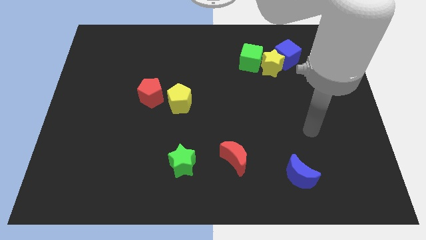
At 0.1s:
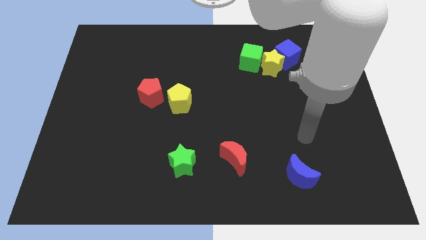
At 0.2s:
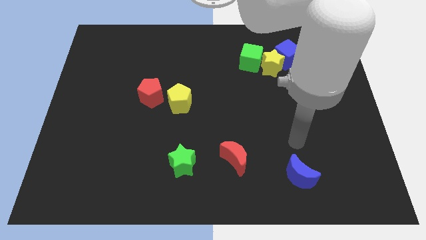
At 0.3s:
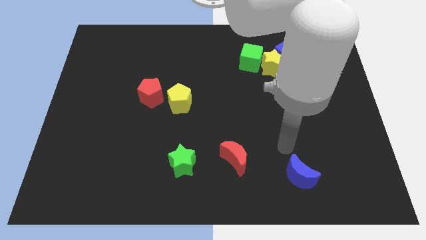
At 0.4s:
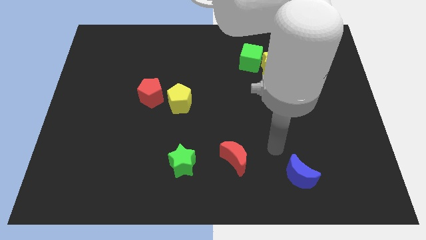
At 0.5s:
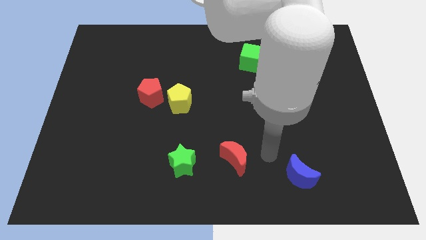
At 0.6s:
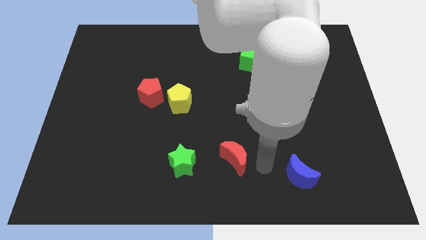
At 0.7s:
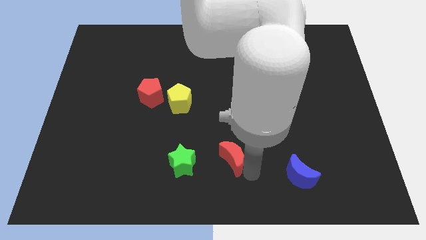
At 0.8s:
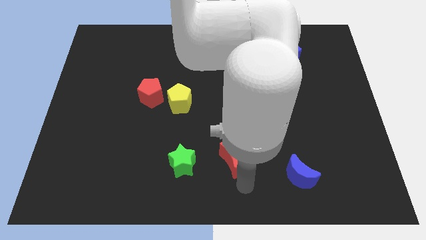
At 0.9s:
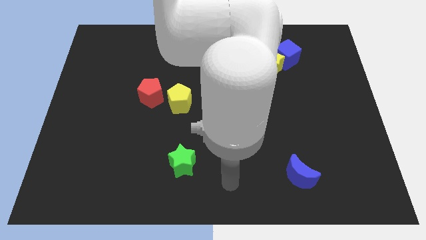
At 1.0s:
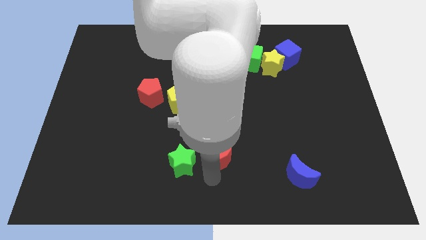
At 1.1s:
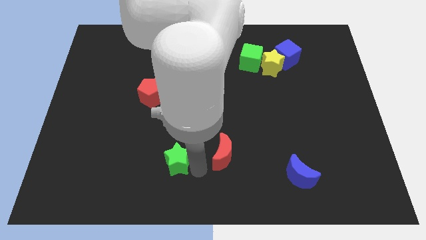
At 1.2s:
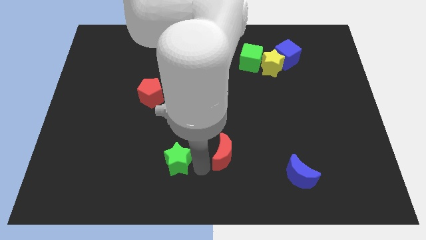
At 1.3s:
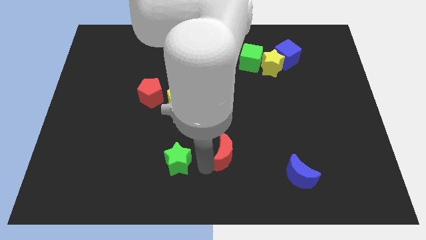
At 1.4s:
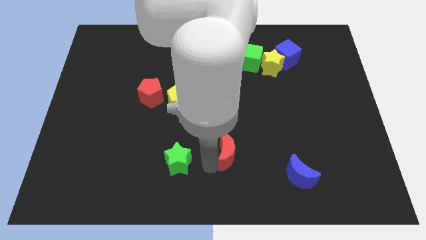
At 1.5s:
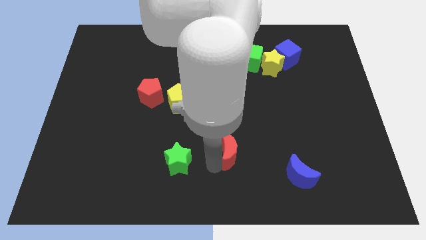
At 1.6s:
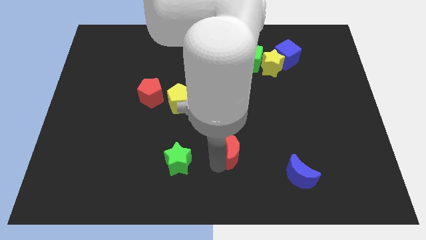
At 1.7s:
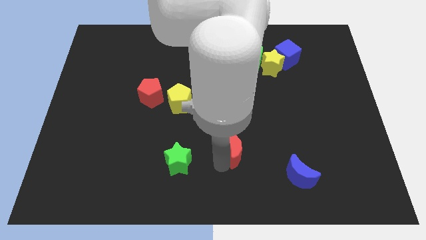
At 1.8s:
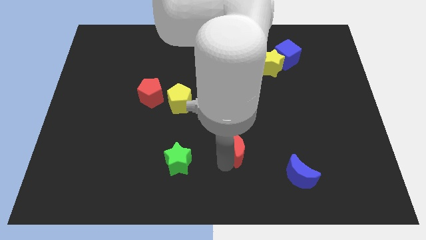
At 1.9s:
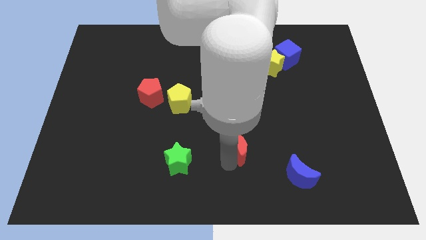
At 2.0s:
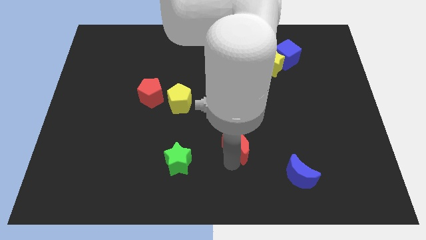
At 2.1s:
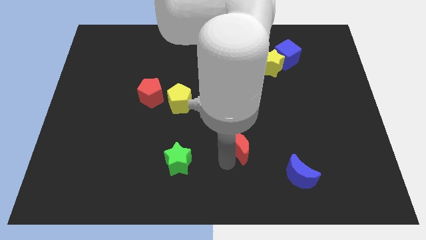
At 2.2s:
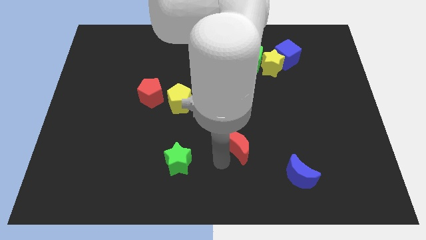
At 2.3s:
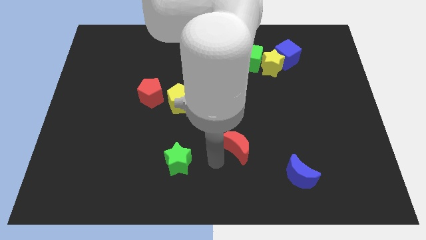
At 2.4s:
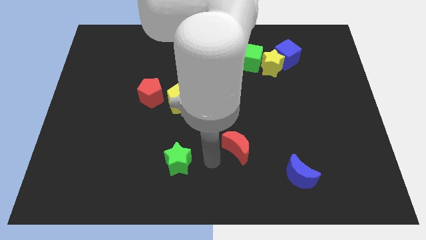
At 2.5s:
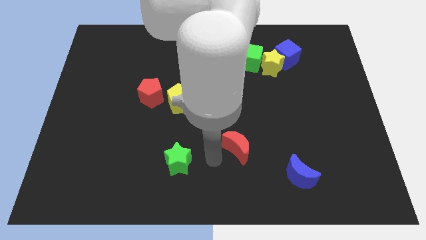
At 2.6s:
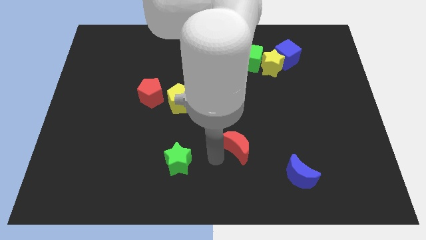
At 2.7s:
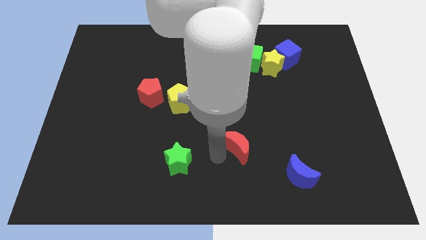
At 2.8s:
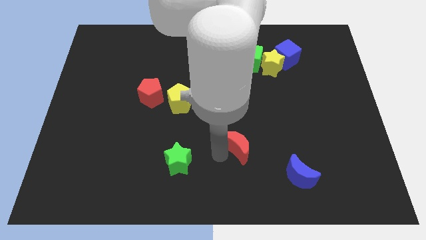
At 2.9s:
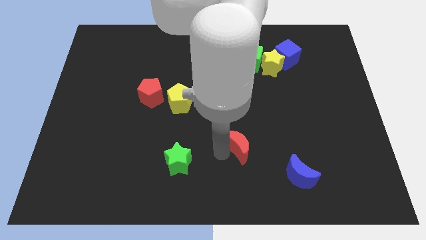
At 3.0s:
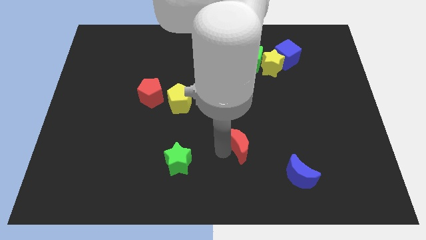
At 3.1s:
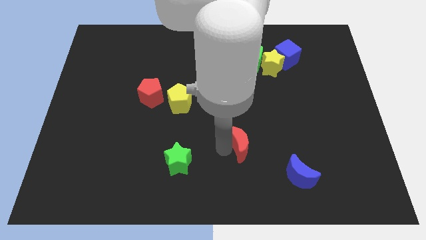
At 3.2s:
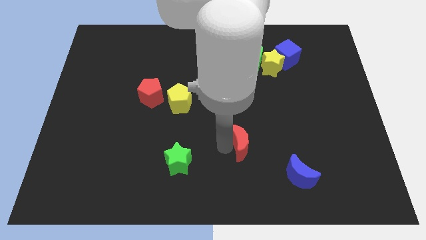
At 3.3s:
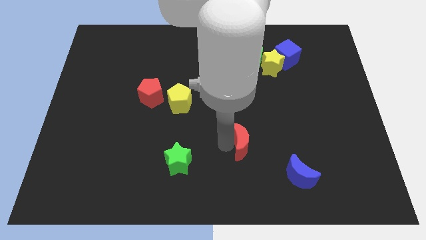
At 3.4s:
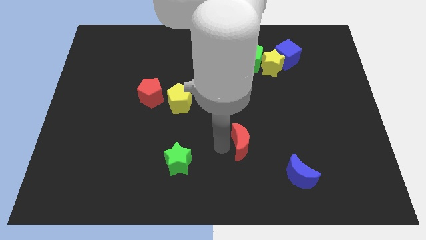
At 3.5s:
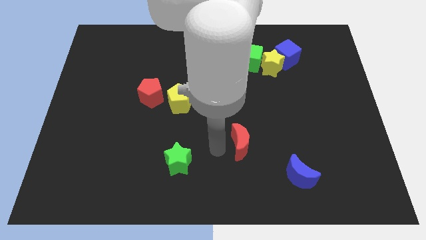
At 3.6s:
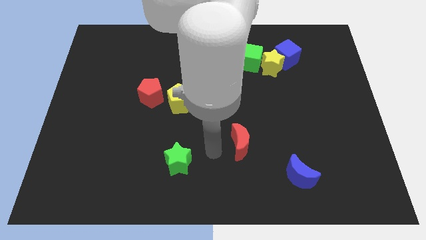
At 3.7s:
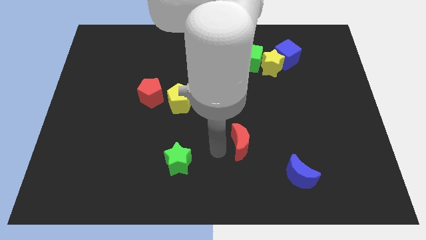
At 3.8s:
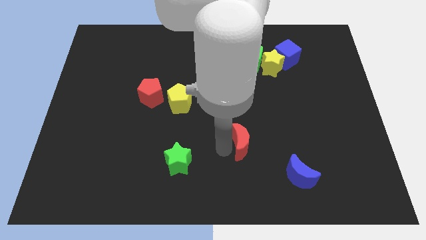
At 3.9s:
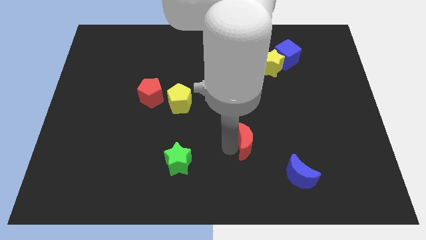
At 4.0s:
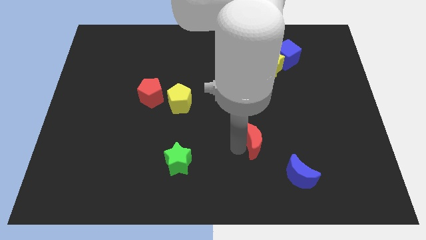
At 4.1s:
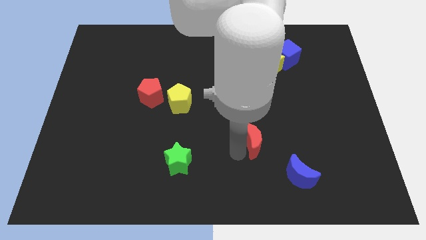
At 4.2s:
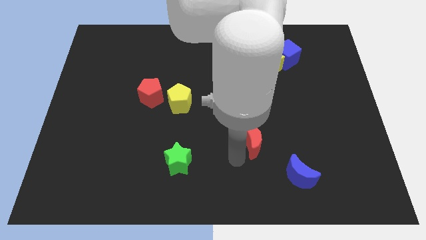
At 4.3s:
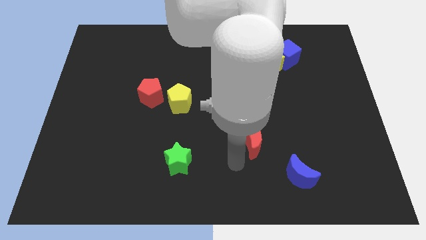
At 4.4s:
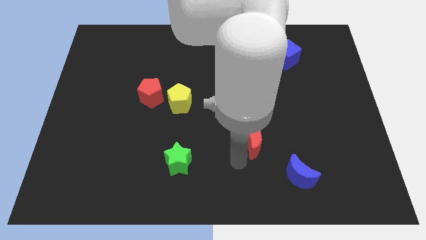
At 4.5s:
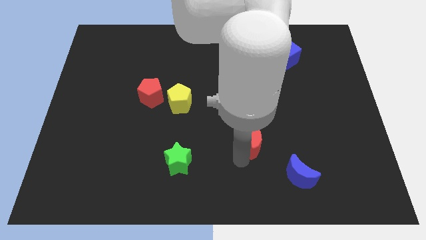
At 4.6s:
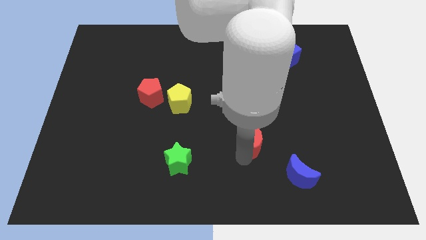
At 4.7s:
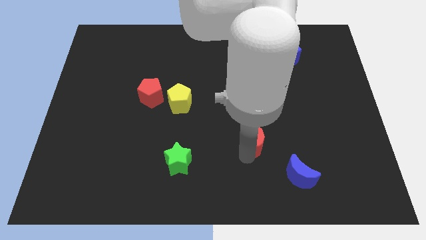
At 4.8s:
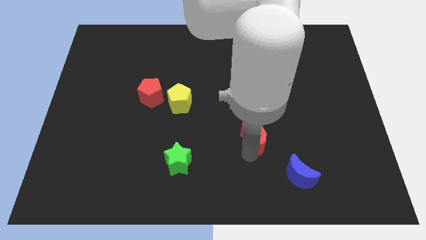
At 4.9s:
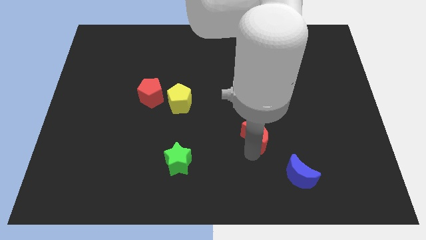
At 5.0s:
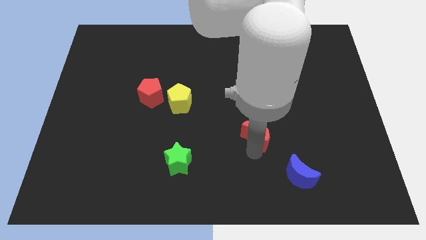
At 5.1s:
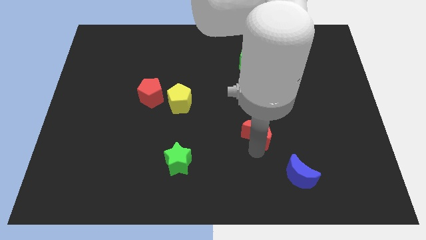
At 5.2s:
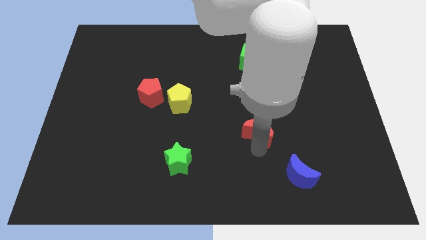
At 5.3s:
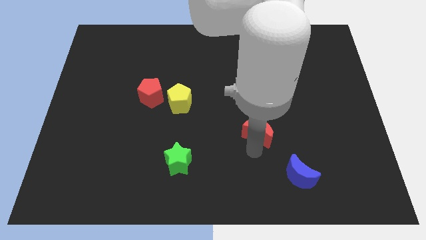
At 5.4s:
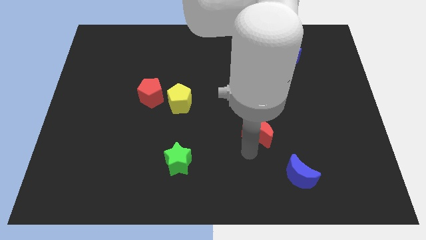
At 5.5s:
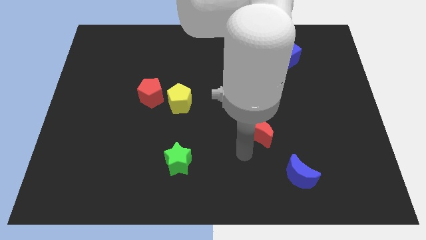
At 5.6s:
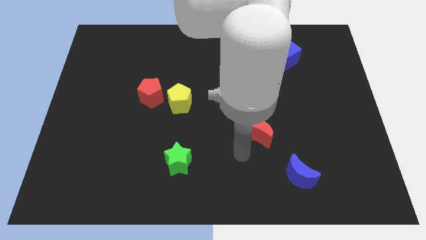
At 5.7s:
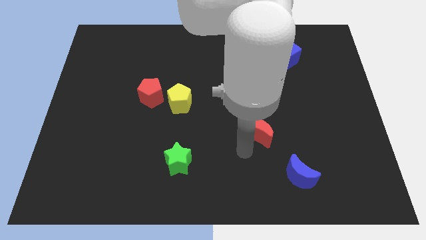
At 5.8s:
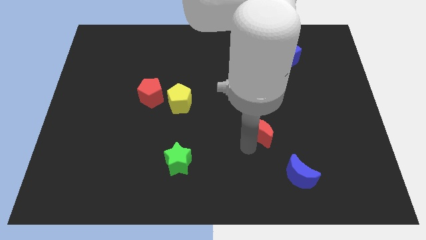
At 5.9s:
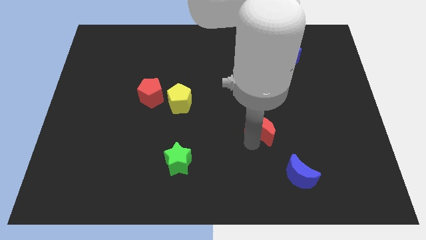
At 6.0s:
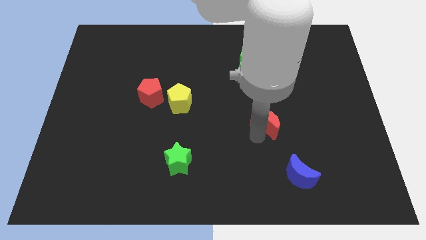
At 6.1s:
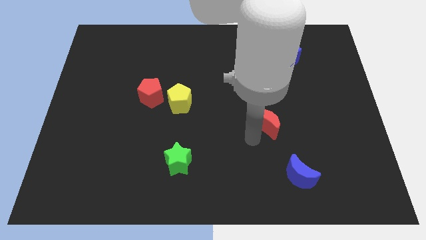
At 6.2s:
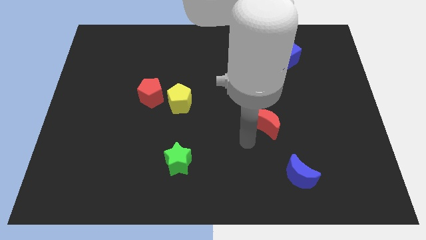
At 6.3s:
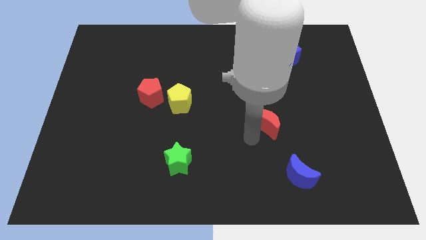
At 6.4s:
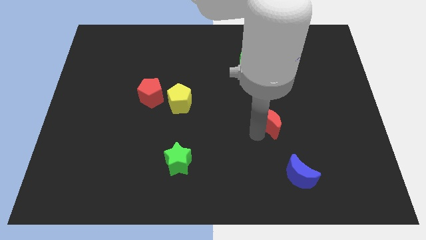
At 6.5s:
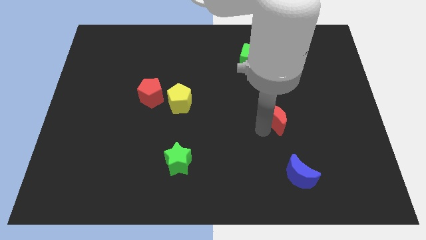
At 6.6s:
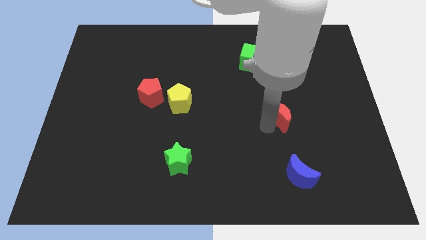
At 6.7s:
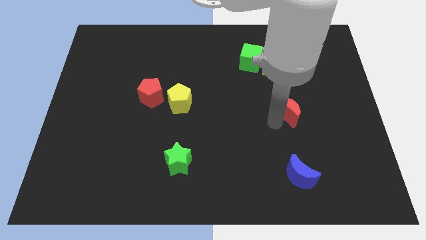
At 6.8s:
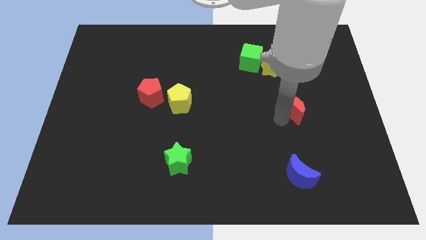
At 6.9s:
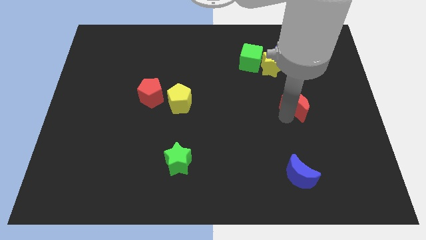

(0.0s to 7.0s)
push the red moon up and to the right

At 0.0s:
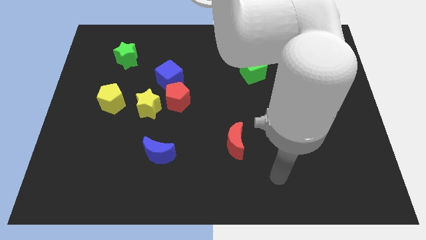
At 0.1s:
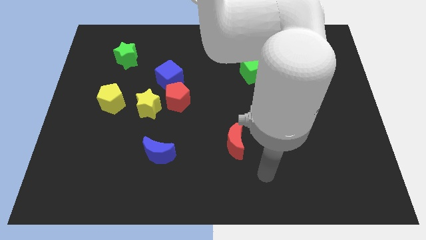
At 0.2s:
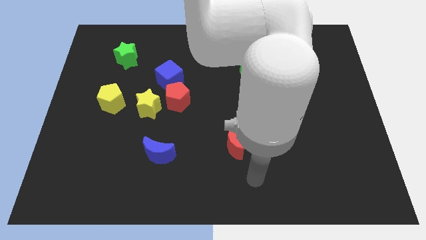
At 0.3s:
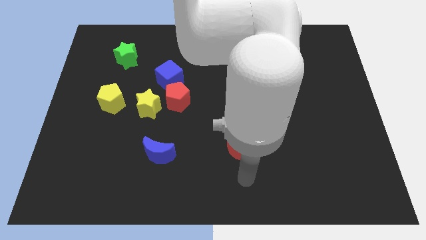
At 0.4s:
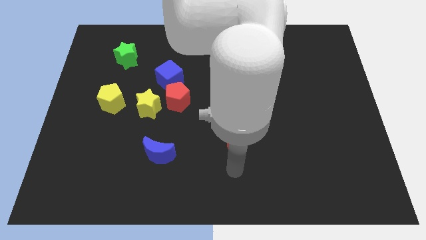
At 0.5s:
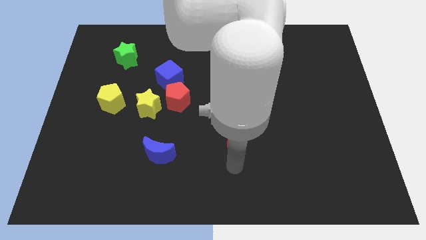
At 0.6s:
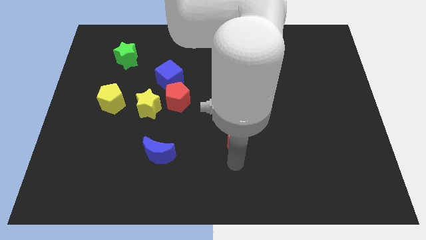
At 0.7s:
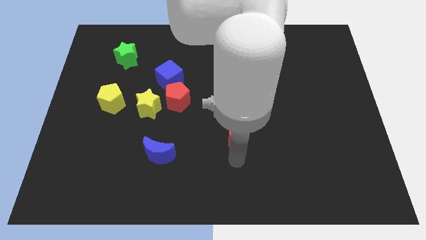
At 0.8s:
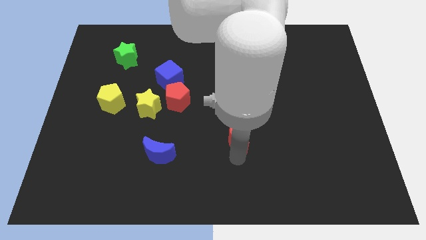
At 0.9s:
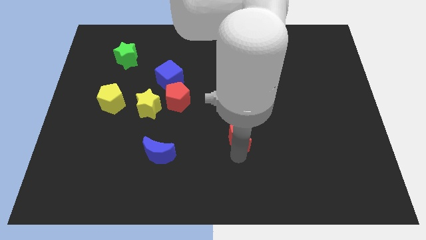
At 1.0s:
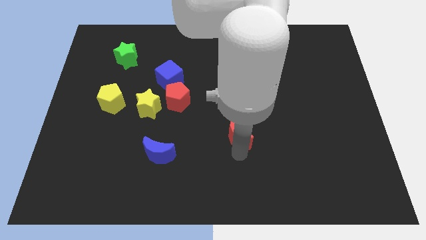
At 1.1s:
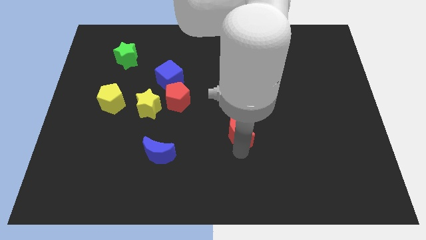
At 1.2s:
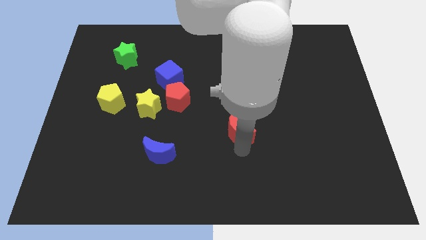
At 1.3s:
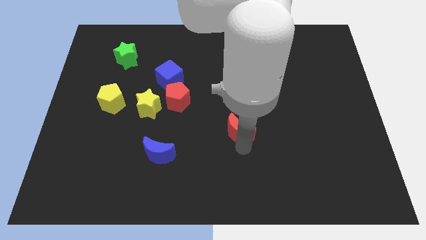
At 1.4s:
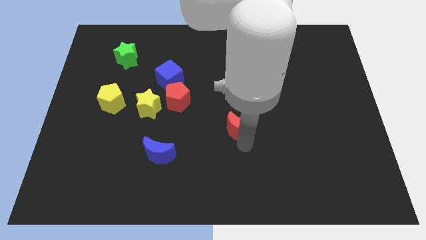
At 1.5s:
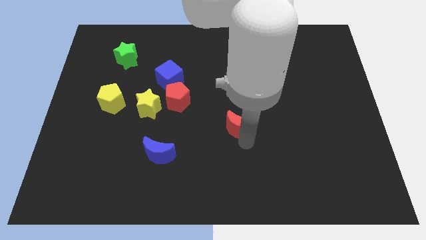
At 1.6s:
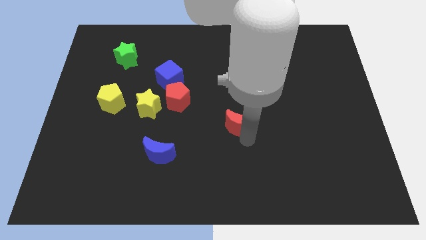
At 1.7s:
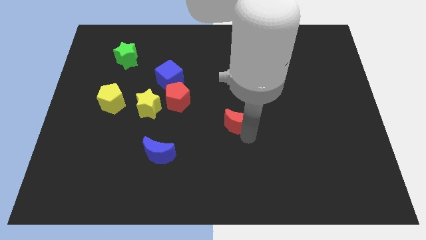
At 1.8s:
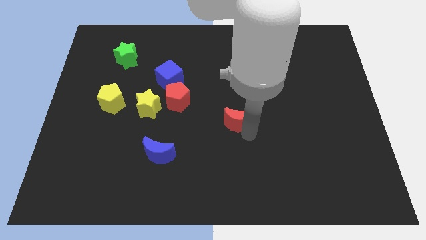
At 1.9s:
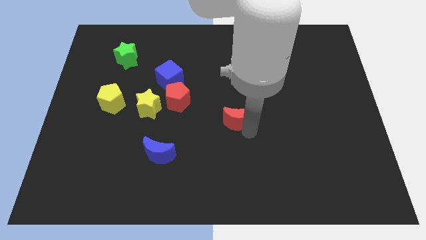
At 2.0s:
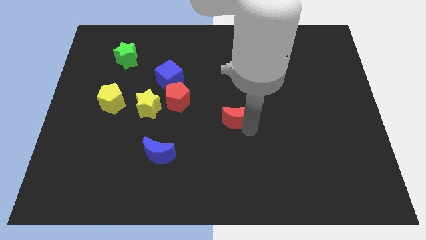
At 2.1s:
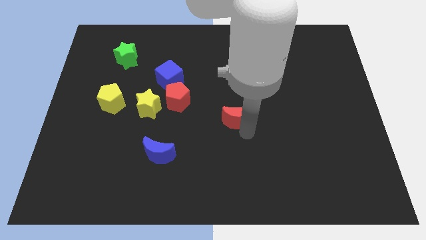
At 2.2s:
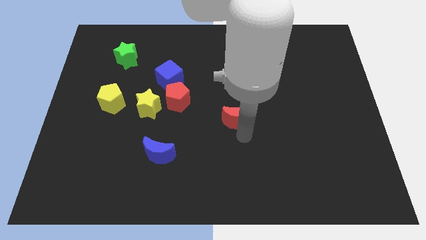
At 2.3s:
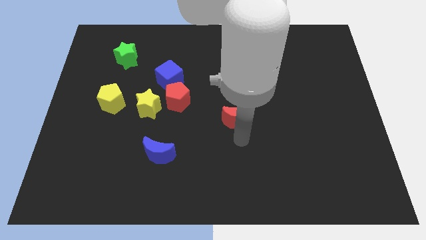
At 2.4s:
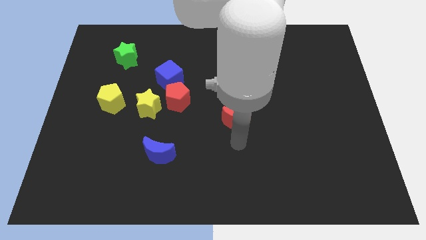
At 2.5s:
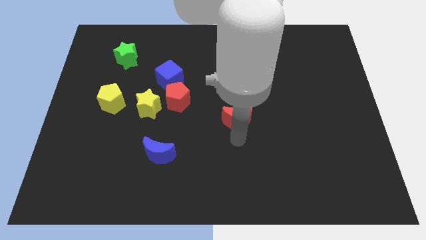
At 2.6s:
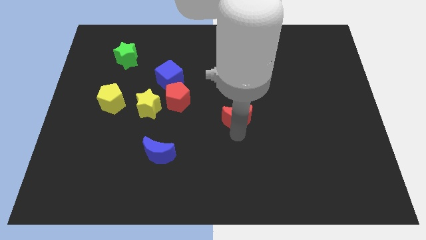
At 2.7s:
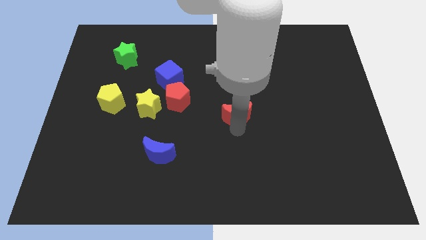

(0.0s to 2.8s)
push the red moon a little bit up
